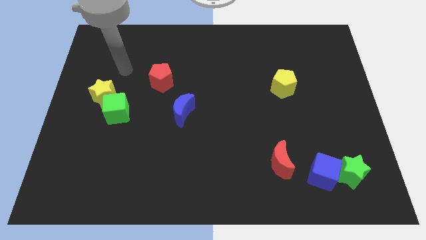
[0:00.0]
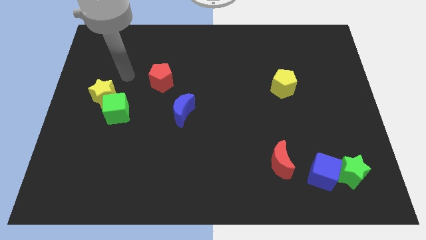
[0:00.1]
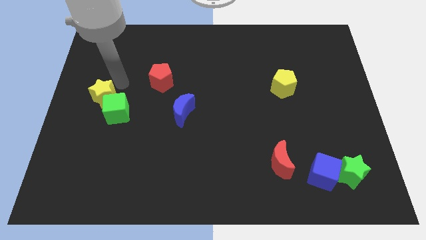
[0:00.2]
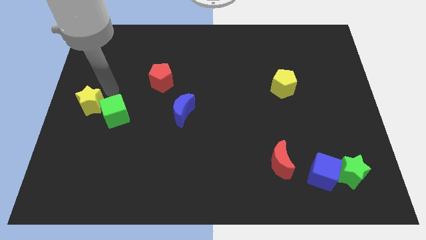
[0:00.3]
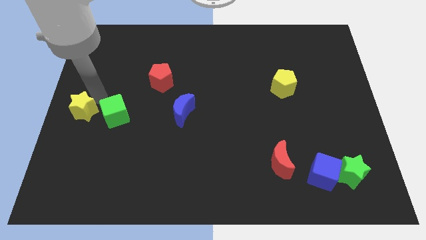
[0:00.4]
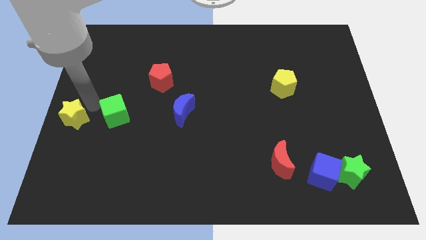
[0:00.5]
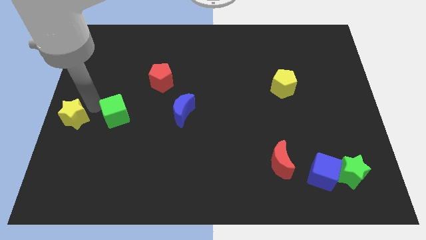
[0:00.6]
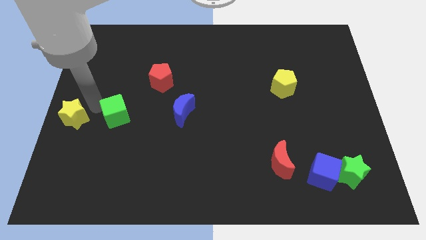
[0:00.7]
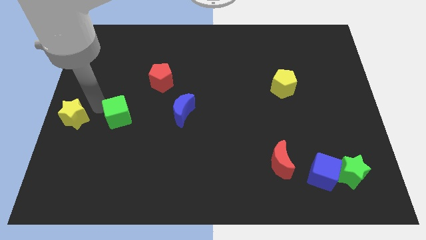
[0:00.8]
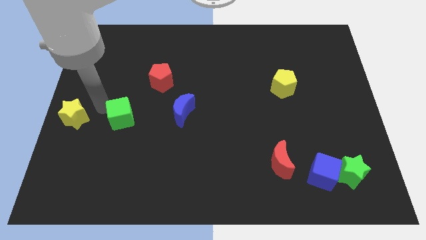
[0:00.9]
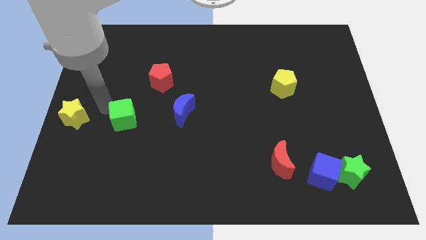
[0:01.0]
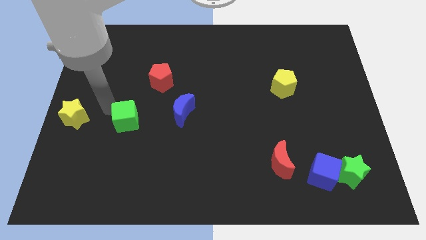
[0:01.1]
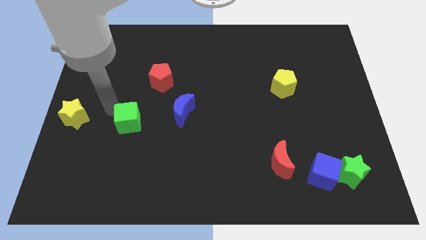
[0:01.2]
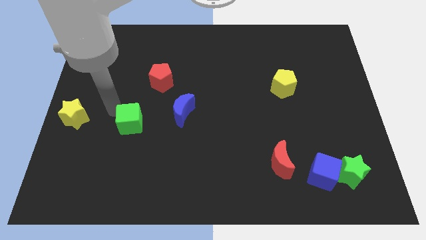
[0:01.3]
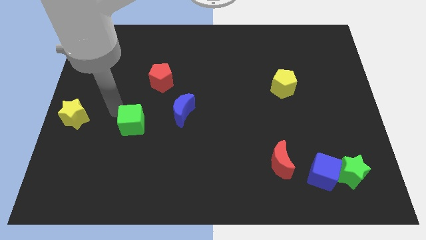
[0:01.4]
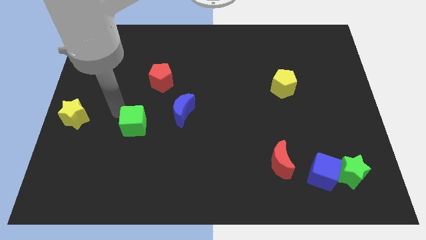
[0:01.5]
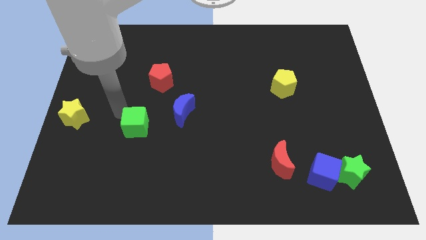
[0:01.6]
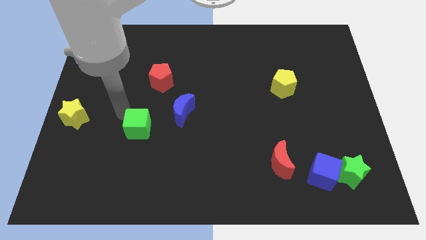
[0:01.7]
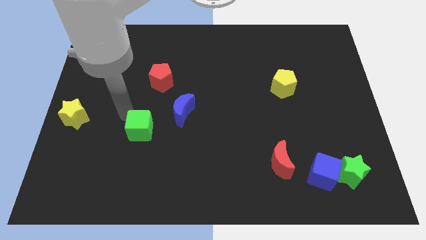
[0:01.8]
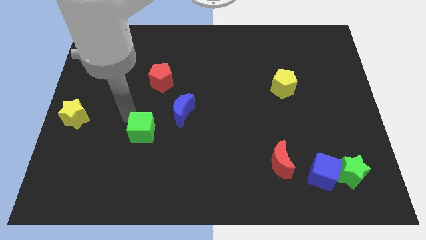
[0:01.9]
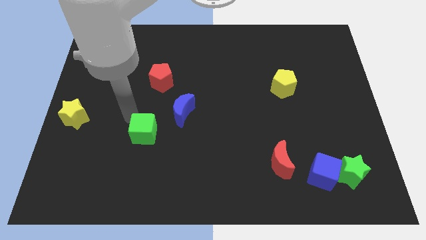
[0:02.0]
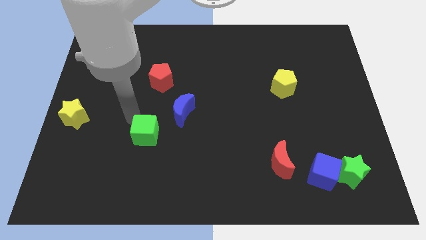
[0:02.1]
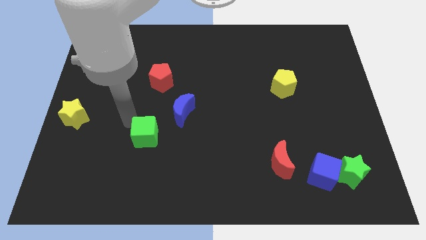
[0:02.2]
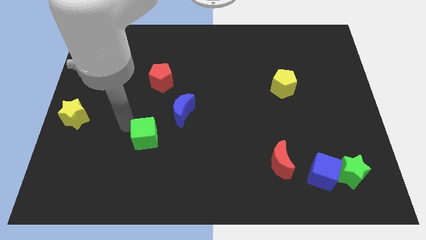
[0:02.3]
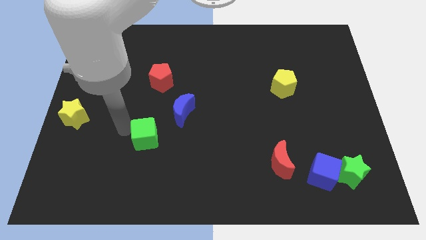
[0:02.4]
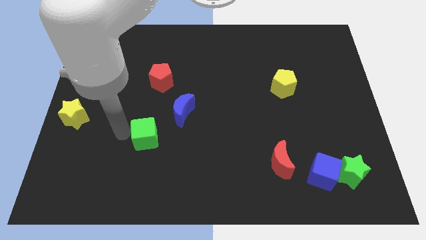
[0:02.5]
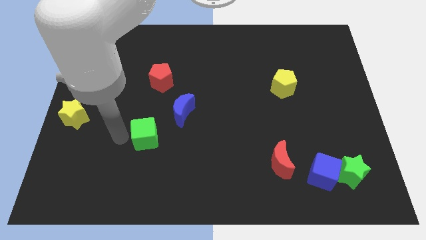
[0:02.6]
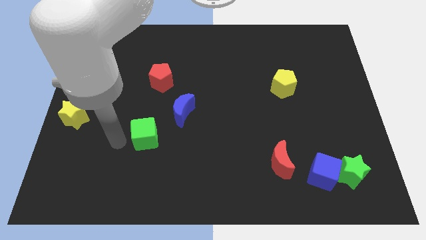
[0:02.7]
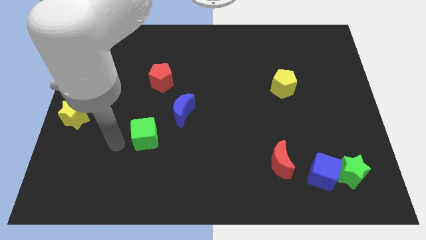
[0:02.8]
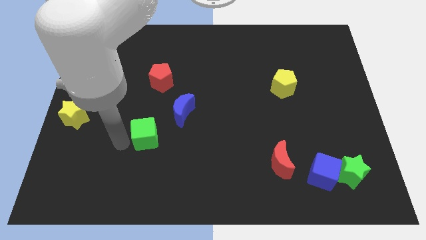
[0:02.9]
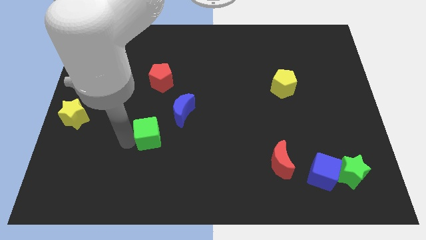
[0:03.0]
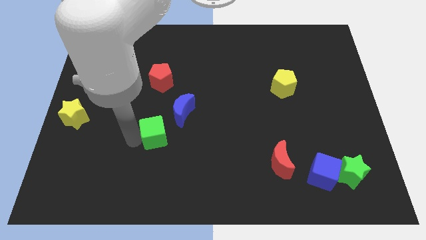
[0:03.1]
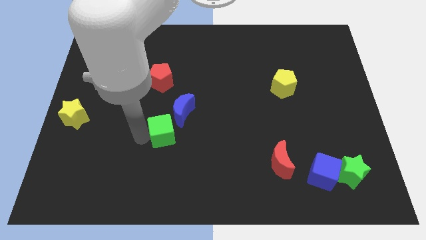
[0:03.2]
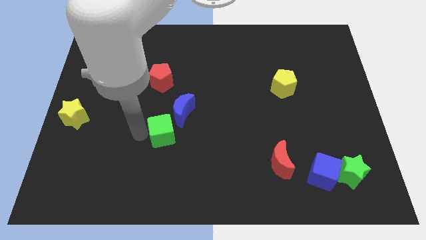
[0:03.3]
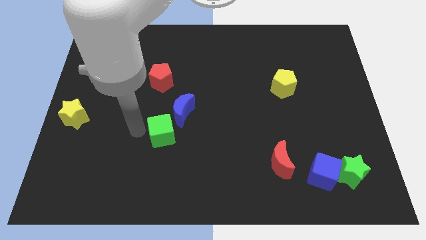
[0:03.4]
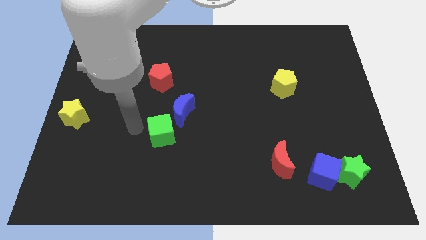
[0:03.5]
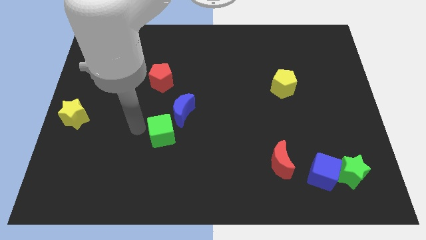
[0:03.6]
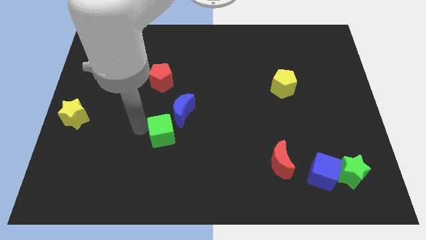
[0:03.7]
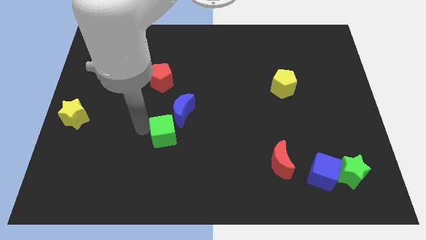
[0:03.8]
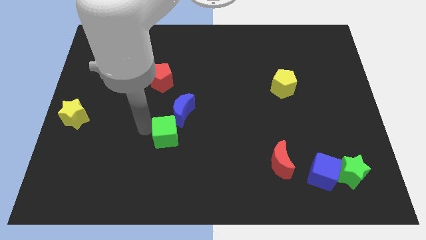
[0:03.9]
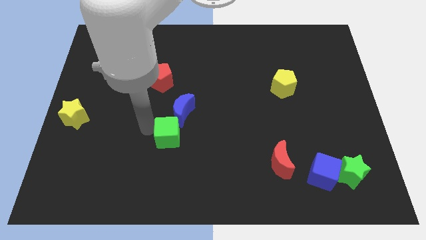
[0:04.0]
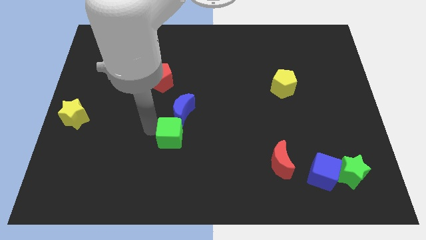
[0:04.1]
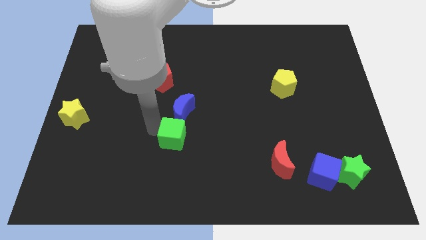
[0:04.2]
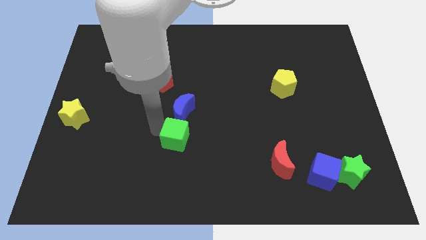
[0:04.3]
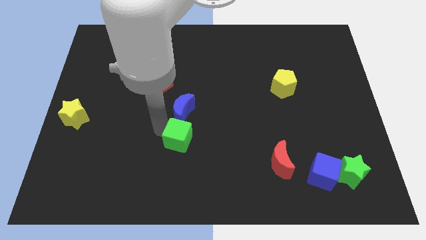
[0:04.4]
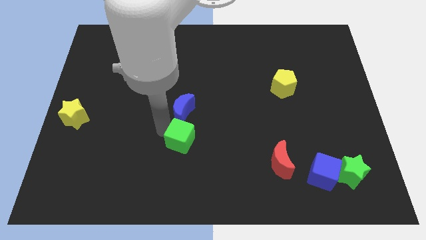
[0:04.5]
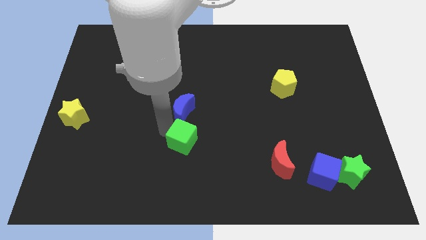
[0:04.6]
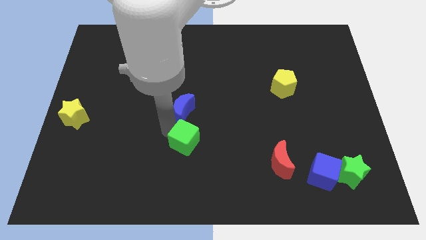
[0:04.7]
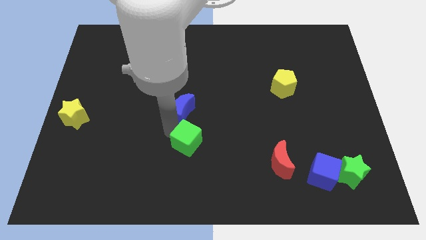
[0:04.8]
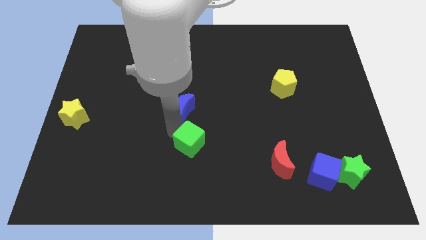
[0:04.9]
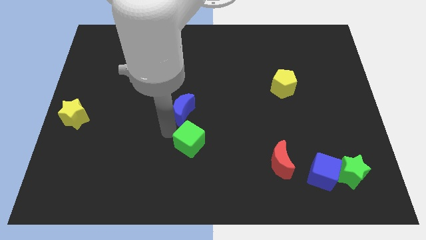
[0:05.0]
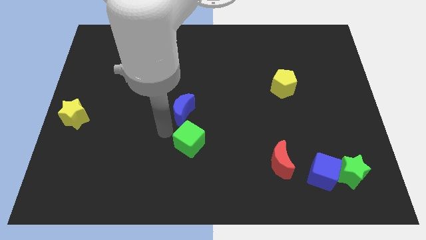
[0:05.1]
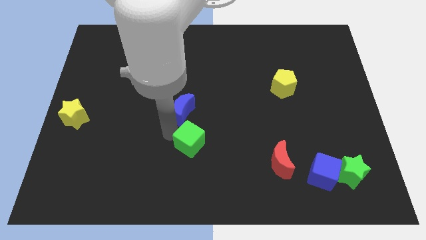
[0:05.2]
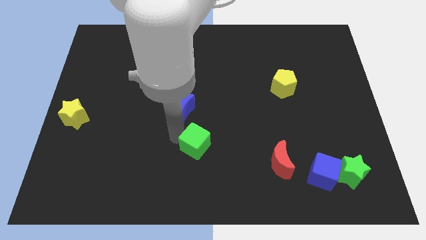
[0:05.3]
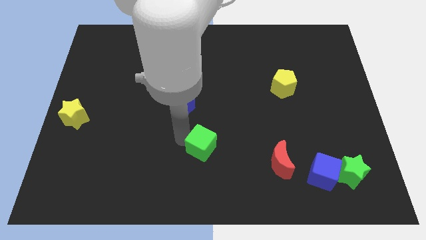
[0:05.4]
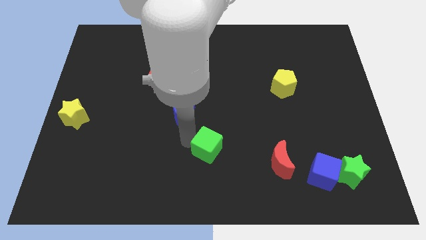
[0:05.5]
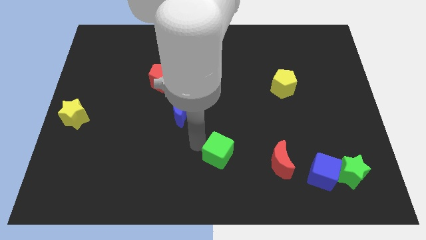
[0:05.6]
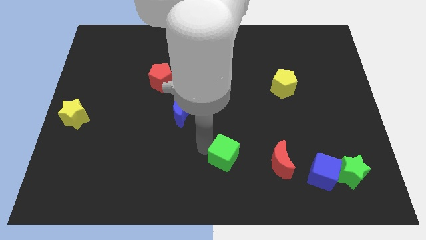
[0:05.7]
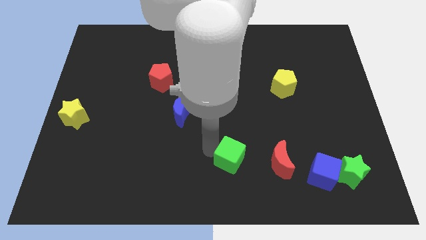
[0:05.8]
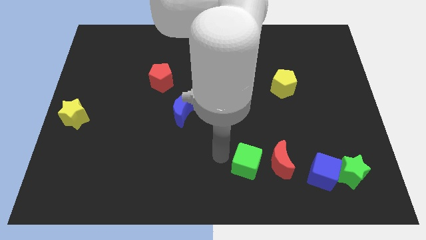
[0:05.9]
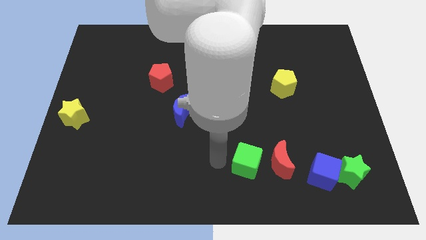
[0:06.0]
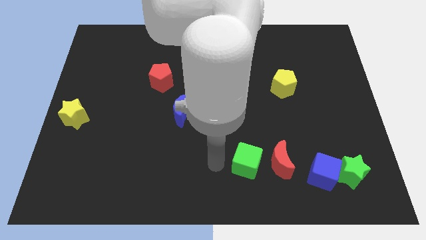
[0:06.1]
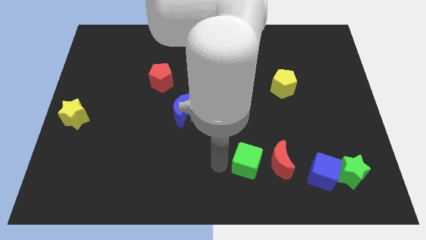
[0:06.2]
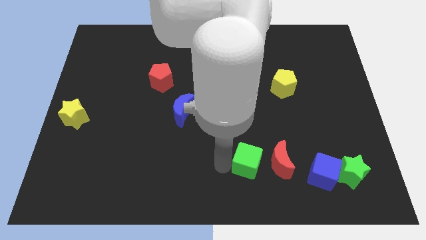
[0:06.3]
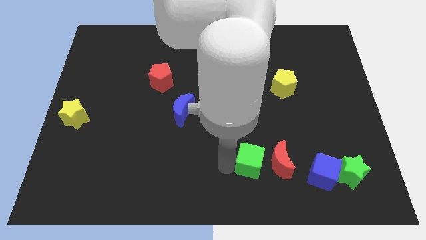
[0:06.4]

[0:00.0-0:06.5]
push the green cube close to the red moon
